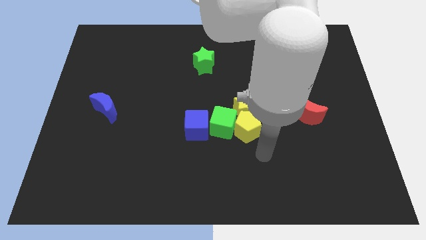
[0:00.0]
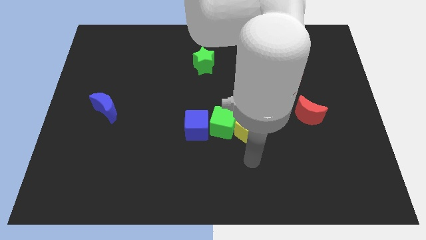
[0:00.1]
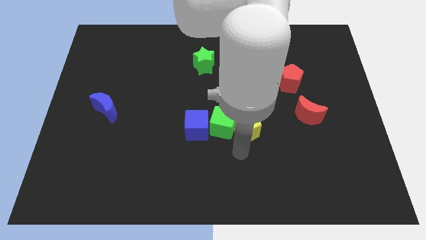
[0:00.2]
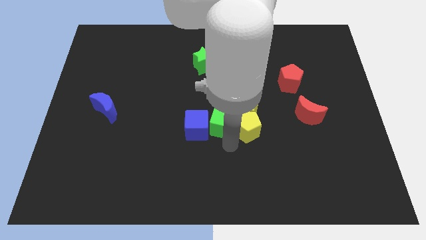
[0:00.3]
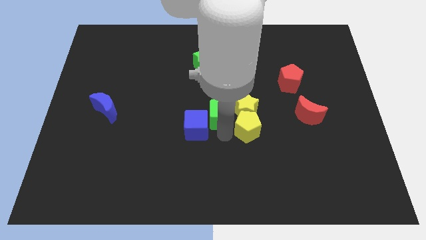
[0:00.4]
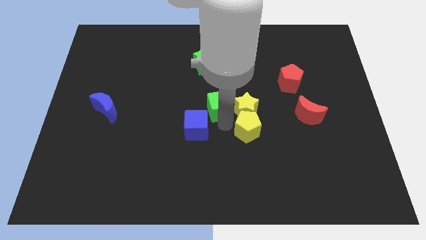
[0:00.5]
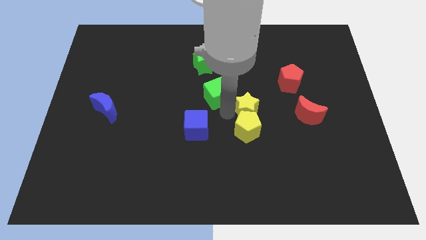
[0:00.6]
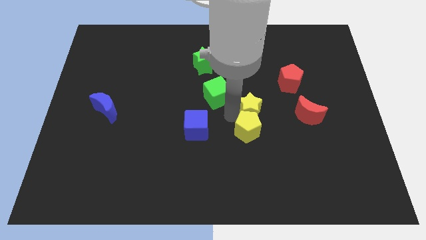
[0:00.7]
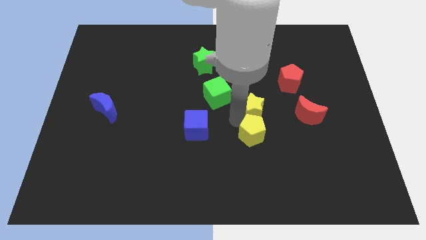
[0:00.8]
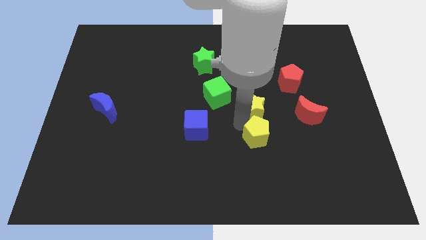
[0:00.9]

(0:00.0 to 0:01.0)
move the yellow pentagon away from the yellow star and green cube

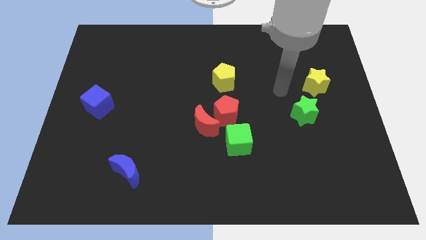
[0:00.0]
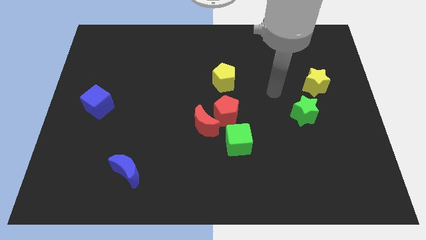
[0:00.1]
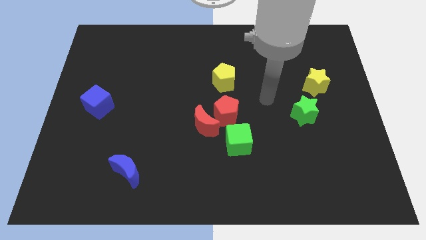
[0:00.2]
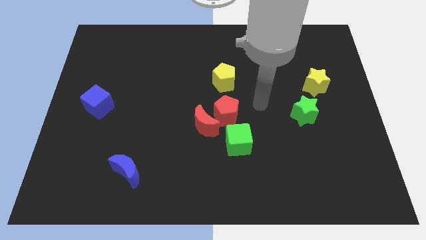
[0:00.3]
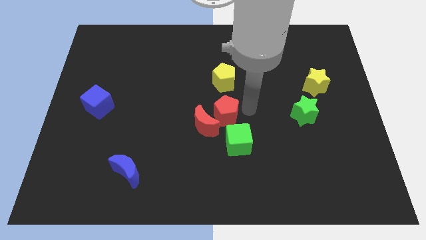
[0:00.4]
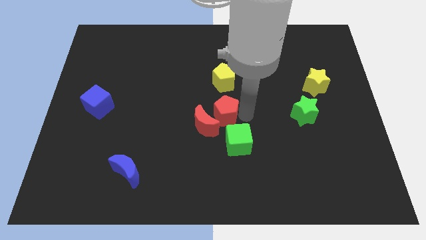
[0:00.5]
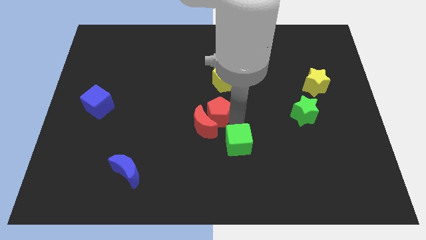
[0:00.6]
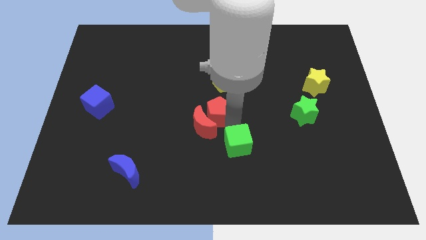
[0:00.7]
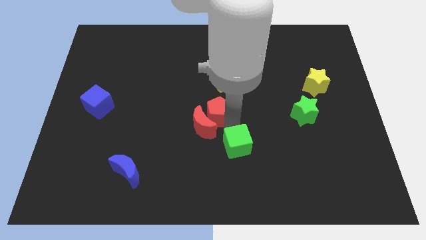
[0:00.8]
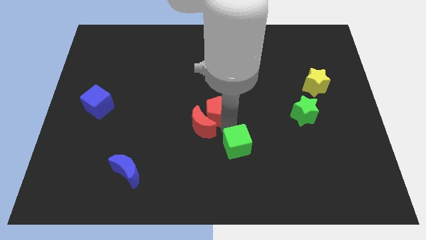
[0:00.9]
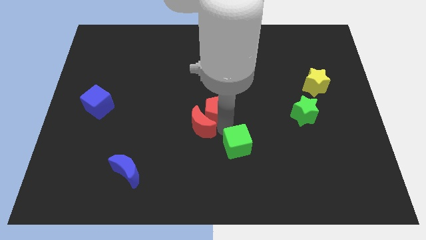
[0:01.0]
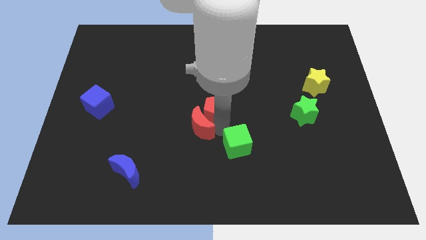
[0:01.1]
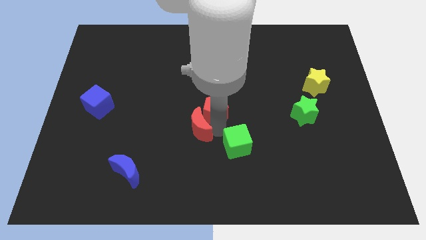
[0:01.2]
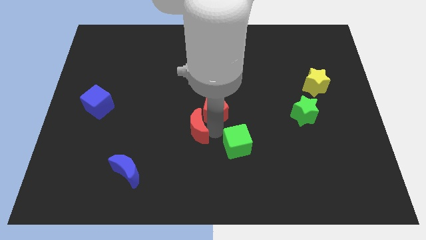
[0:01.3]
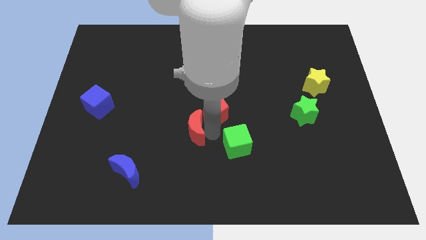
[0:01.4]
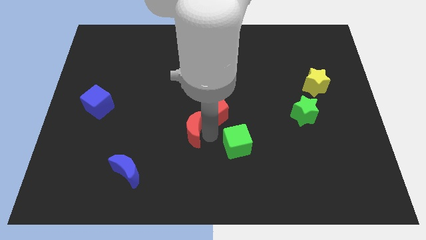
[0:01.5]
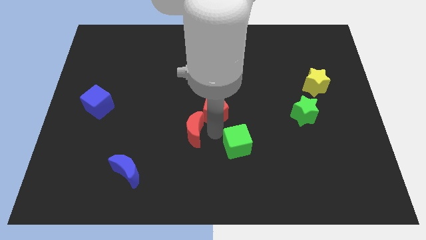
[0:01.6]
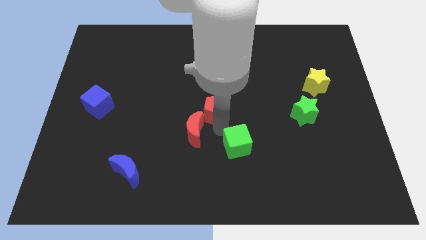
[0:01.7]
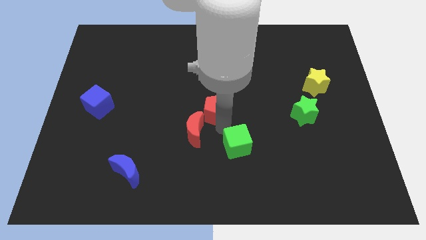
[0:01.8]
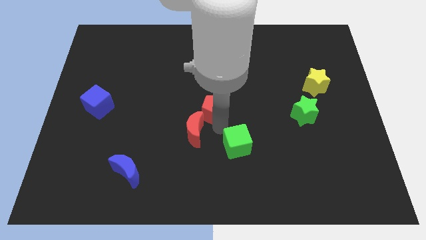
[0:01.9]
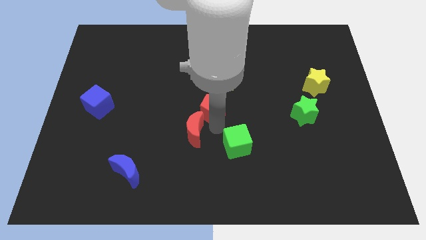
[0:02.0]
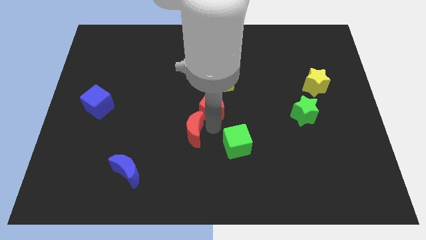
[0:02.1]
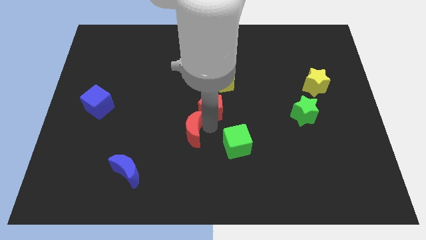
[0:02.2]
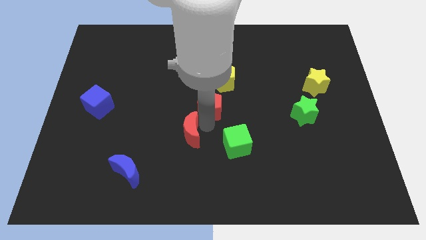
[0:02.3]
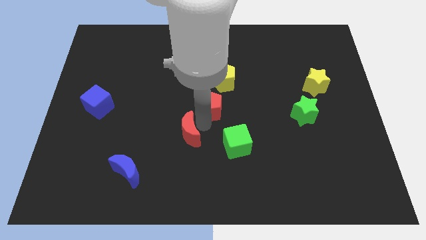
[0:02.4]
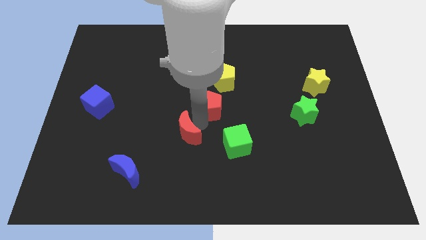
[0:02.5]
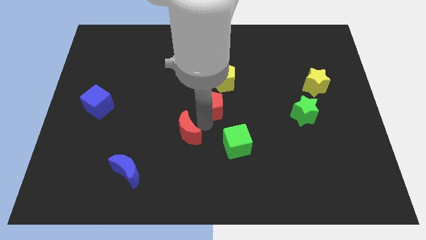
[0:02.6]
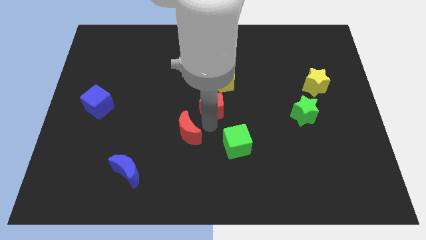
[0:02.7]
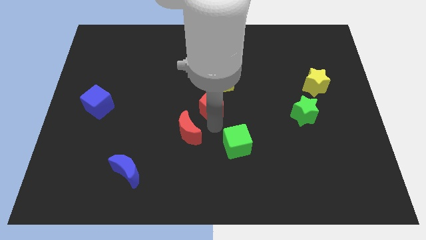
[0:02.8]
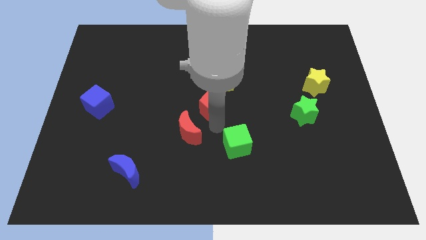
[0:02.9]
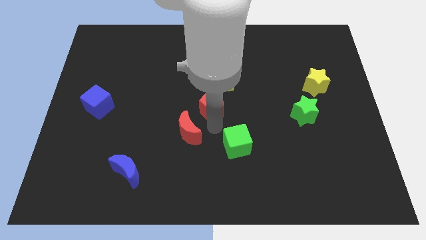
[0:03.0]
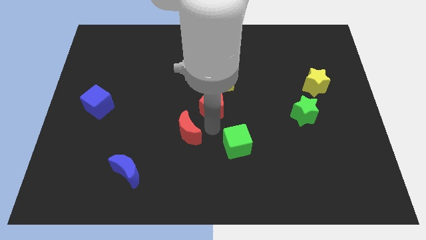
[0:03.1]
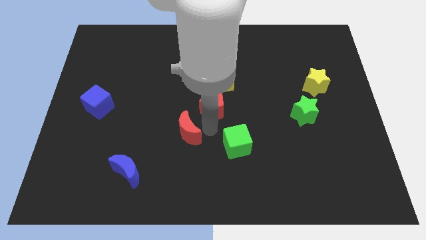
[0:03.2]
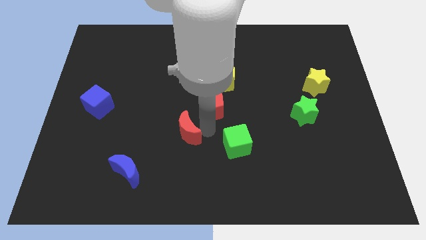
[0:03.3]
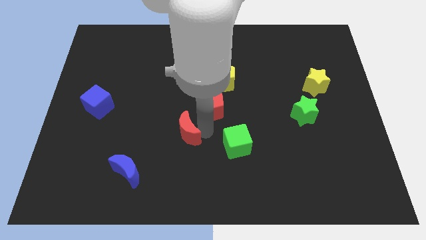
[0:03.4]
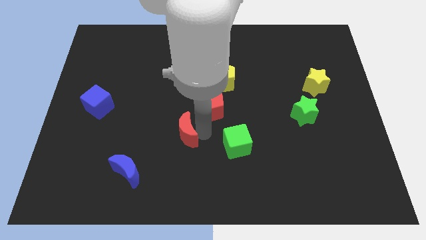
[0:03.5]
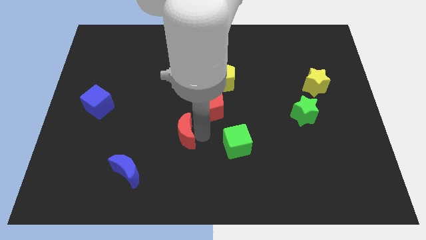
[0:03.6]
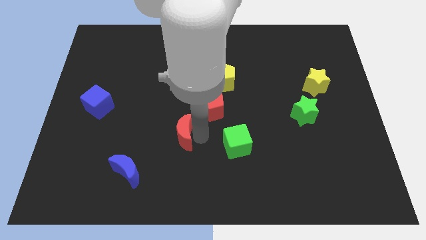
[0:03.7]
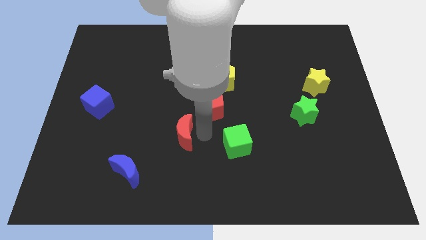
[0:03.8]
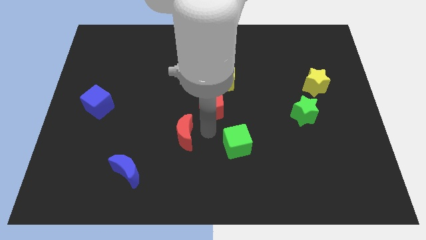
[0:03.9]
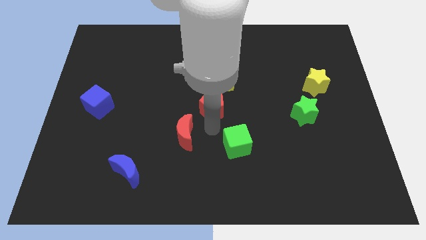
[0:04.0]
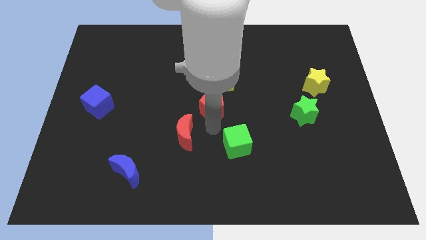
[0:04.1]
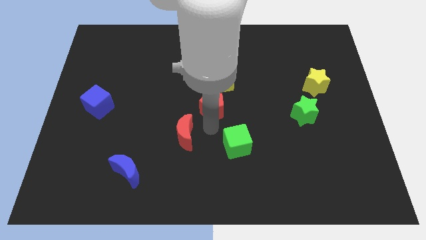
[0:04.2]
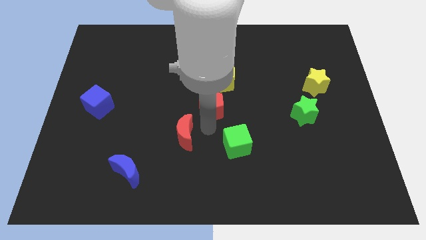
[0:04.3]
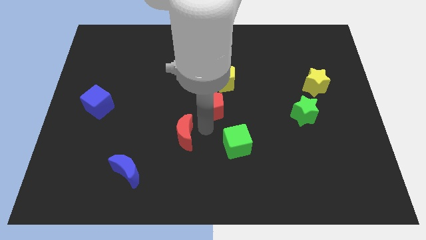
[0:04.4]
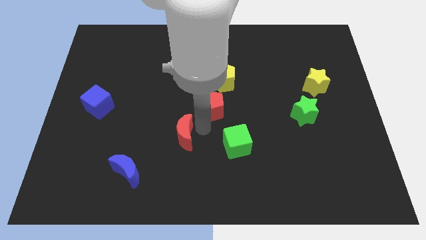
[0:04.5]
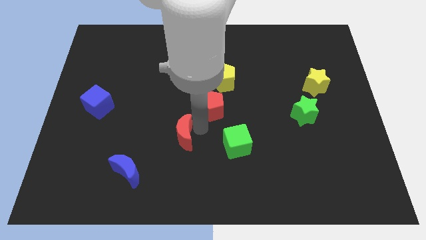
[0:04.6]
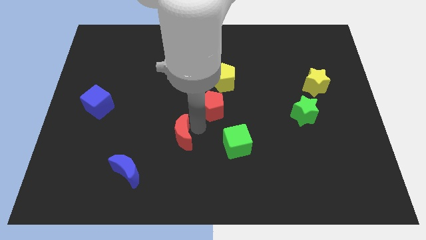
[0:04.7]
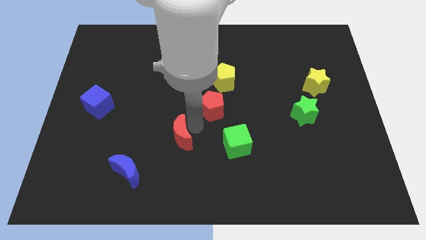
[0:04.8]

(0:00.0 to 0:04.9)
separate the red moon from the red pentagon and green cube

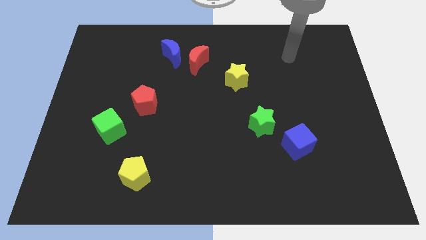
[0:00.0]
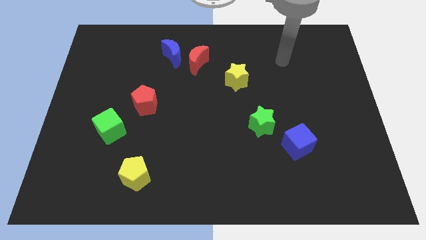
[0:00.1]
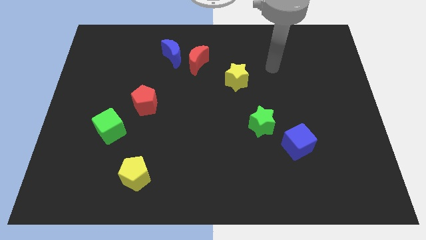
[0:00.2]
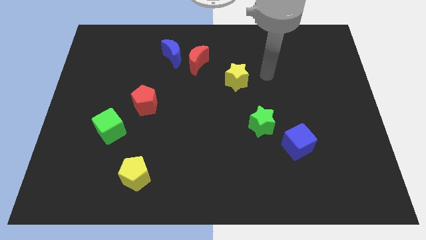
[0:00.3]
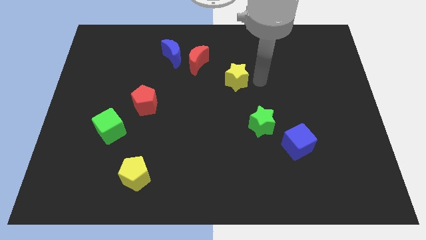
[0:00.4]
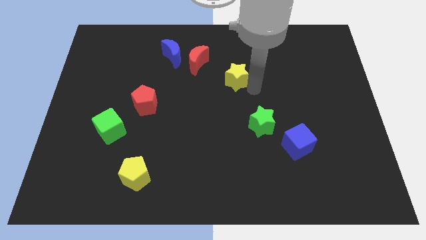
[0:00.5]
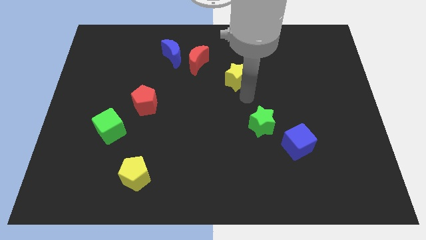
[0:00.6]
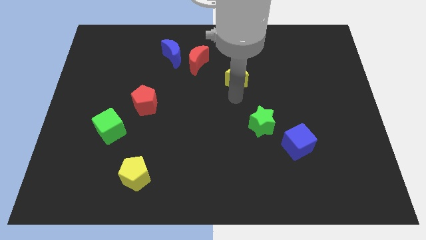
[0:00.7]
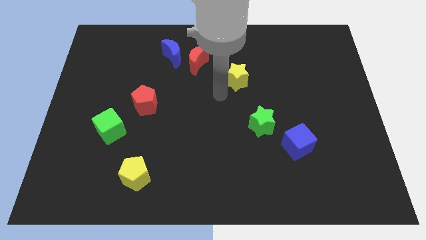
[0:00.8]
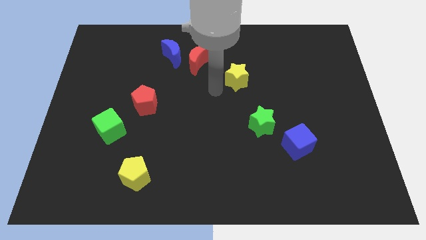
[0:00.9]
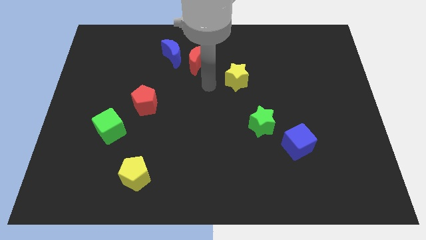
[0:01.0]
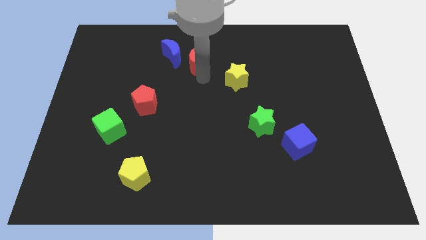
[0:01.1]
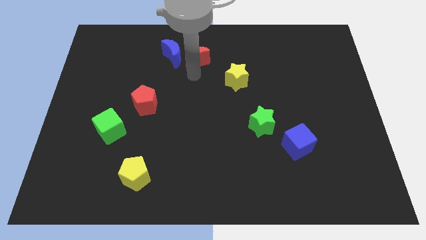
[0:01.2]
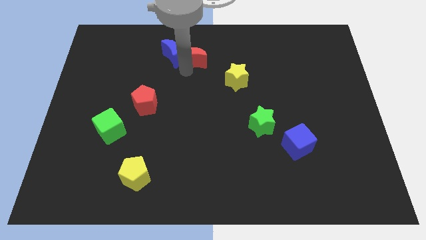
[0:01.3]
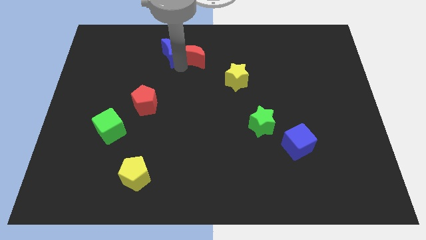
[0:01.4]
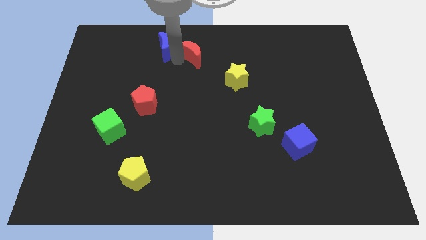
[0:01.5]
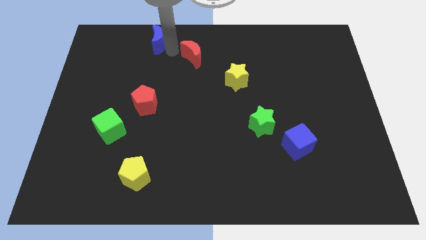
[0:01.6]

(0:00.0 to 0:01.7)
move the red moon away from the blue moon

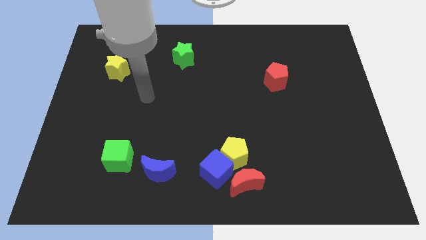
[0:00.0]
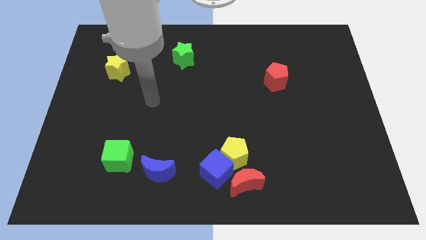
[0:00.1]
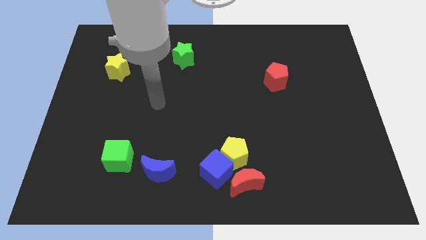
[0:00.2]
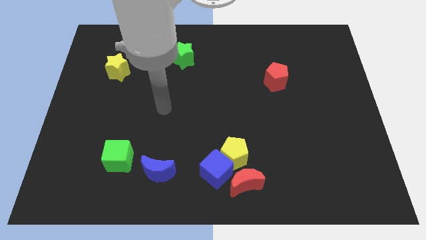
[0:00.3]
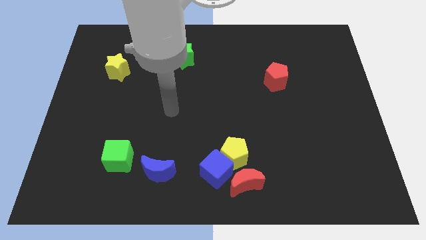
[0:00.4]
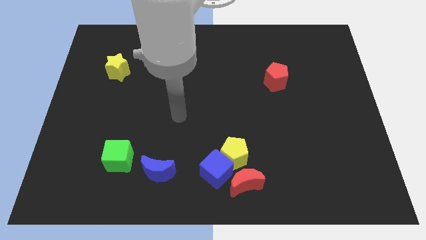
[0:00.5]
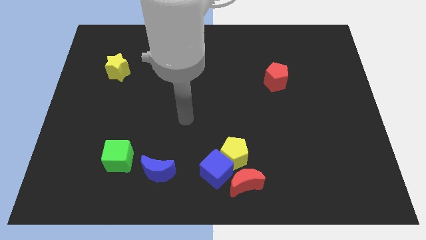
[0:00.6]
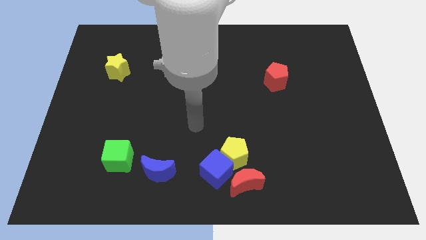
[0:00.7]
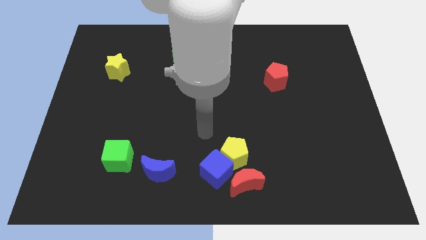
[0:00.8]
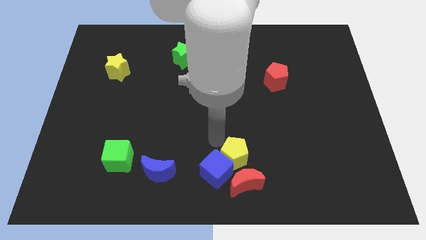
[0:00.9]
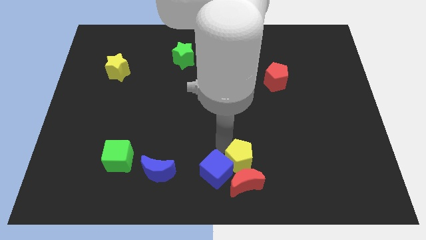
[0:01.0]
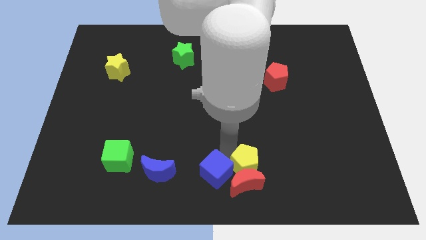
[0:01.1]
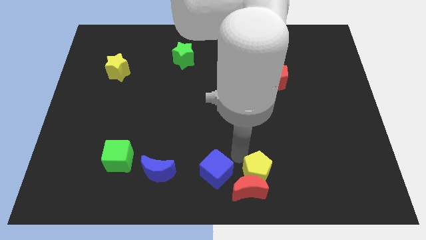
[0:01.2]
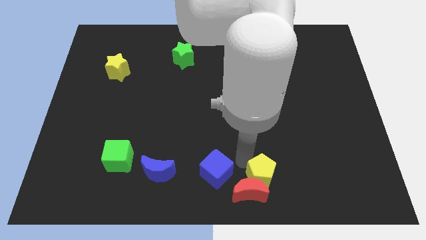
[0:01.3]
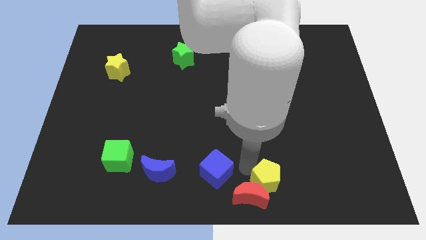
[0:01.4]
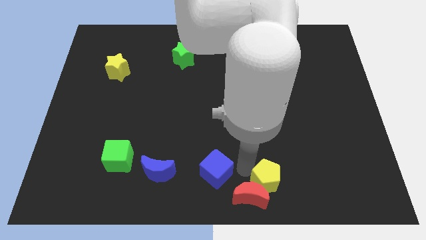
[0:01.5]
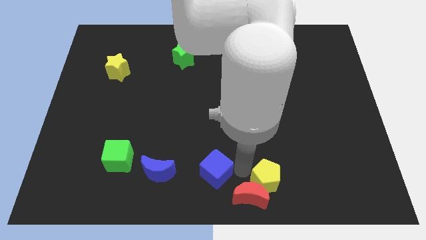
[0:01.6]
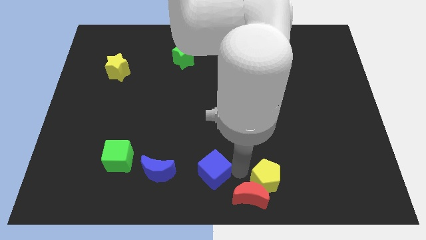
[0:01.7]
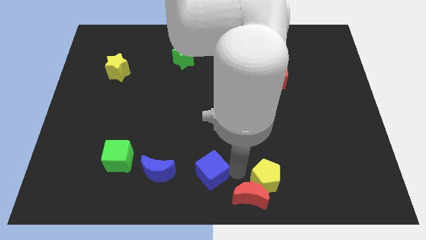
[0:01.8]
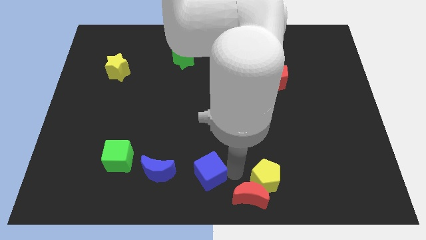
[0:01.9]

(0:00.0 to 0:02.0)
pull the blue cube apart from the yellow pentagon and red moon

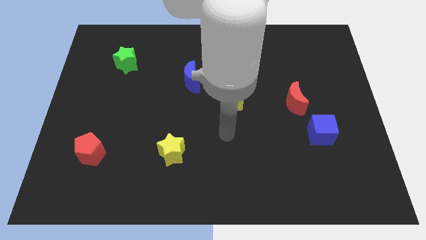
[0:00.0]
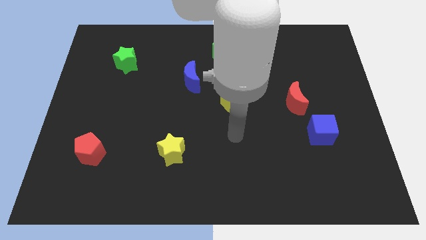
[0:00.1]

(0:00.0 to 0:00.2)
move the red moon away from the blue cube
